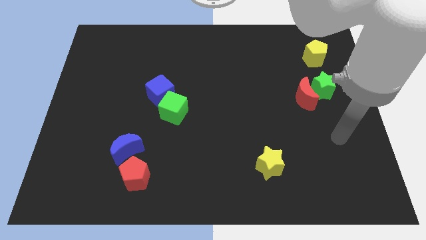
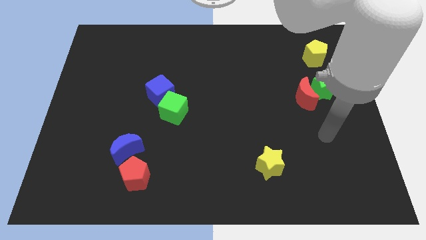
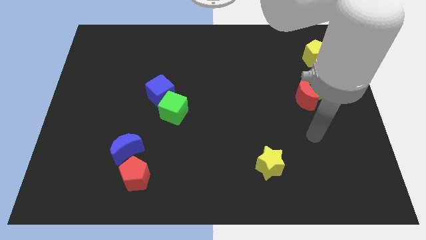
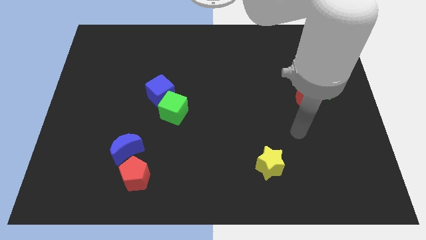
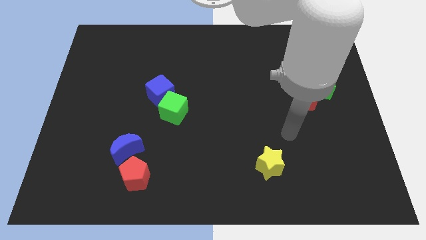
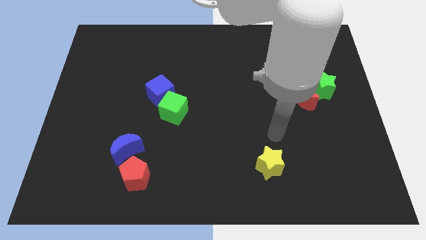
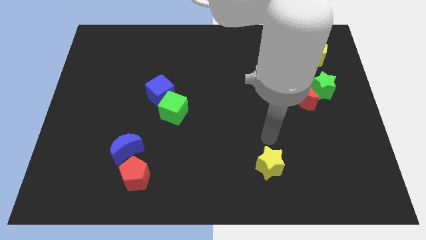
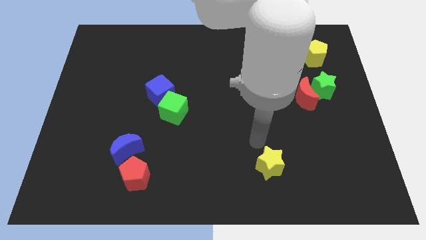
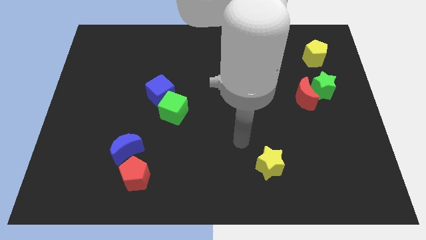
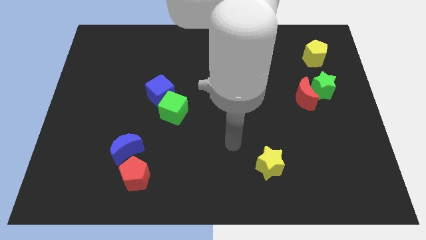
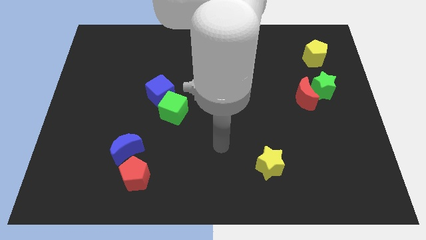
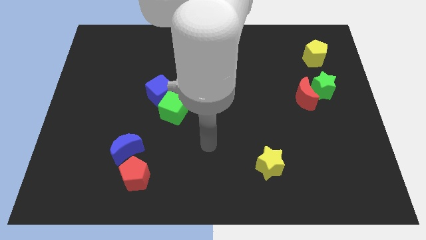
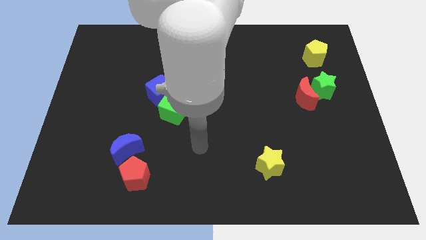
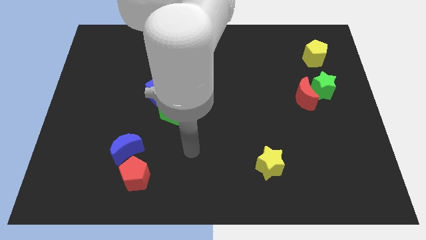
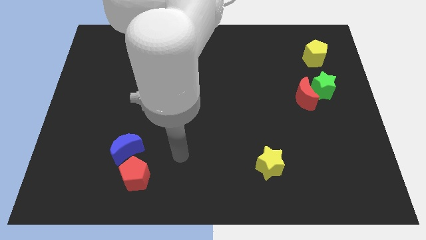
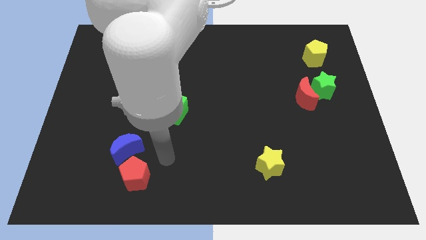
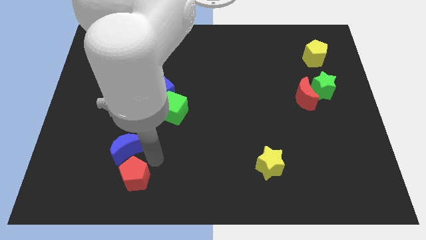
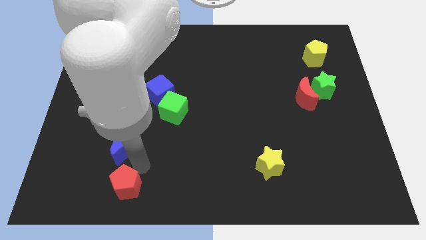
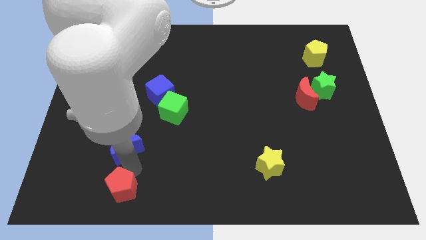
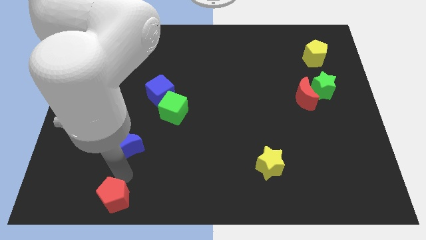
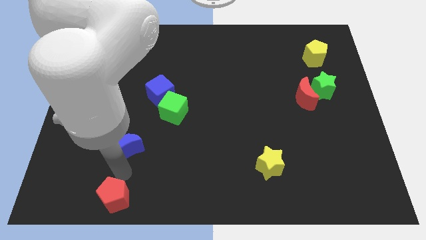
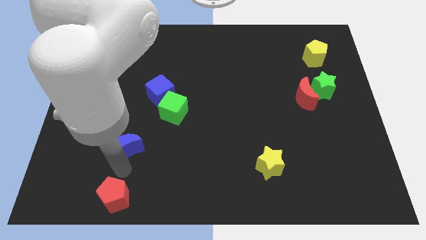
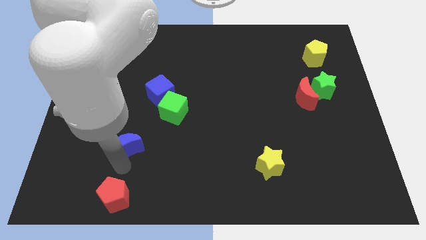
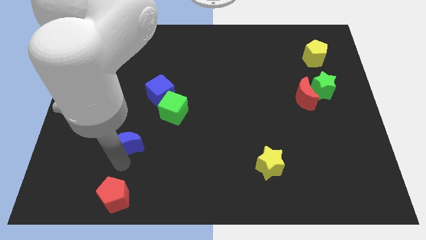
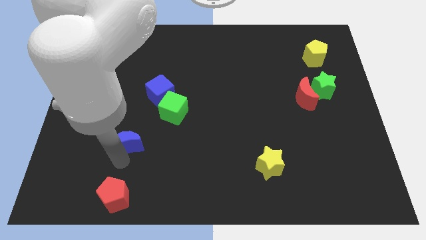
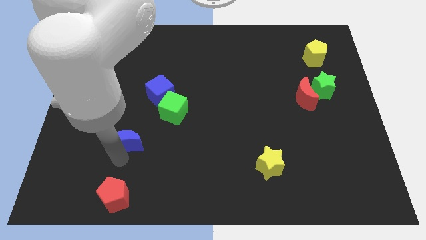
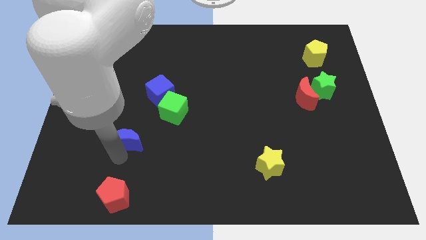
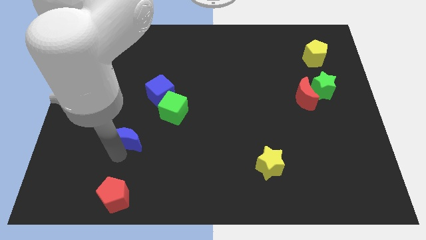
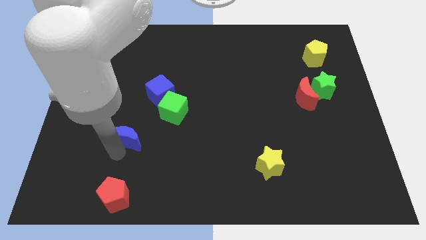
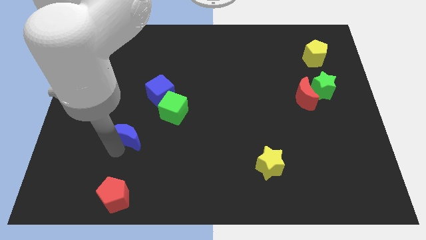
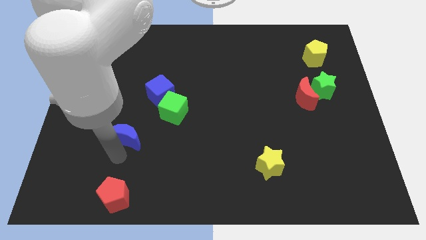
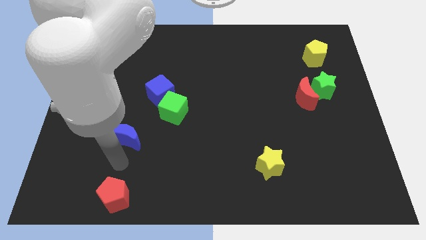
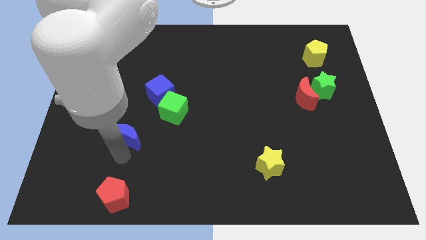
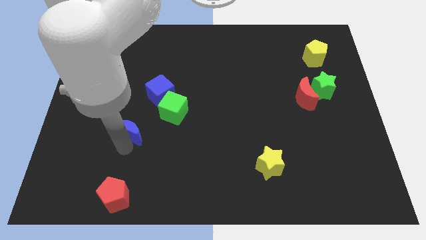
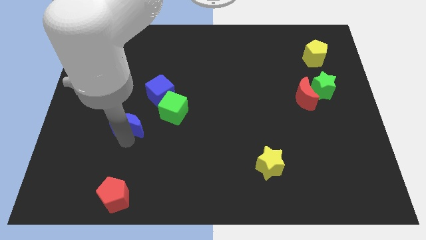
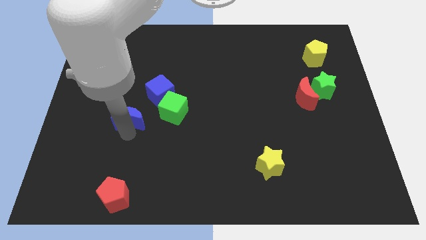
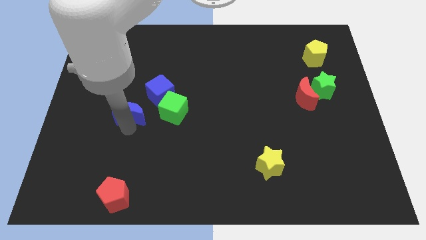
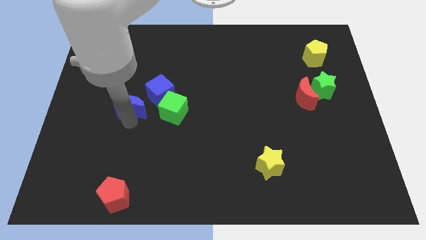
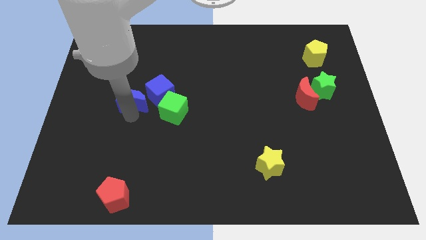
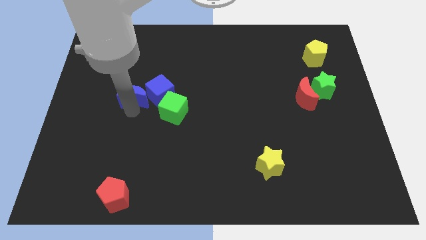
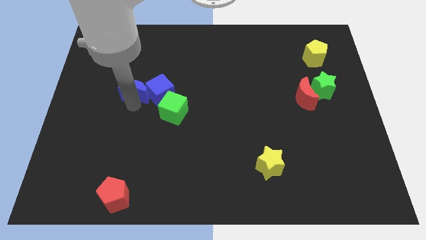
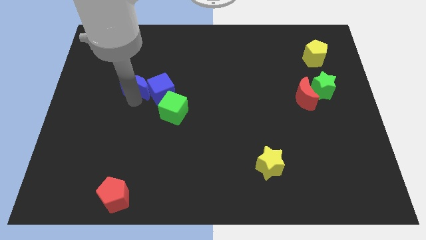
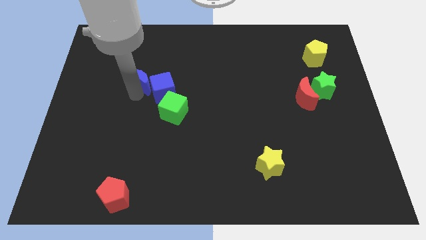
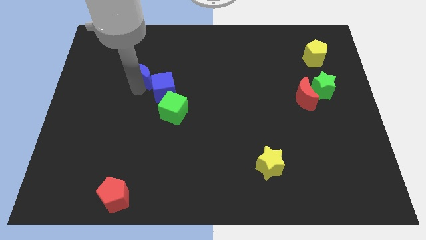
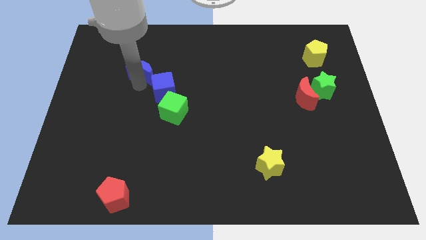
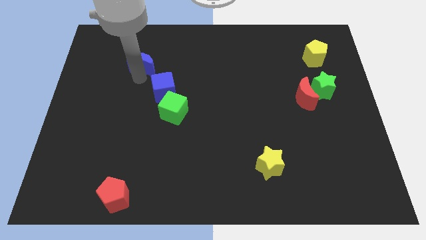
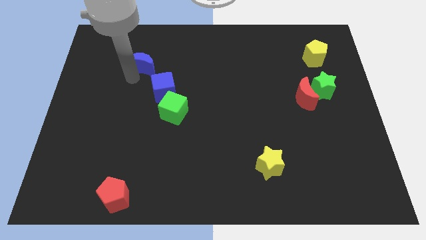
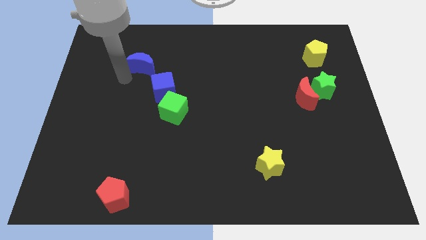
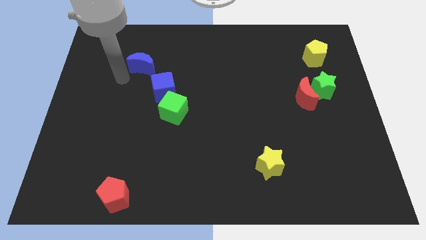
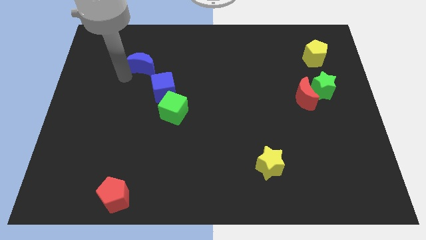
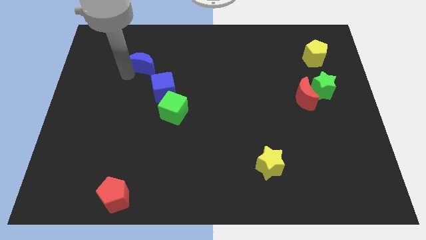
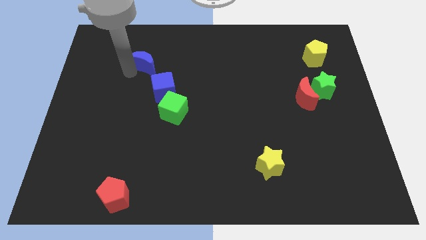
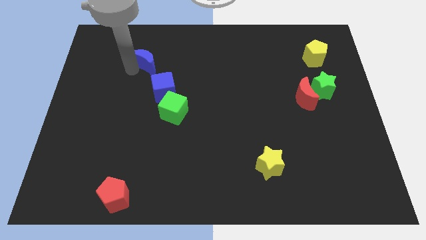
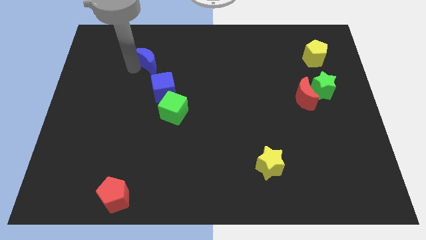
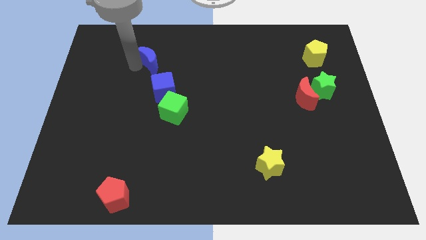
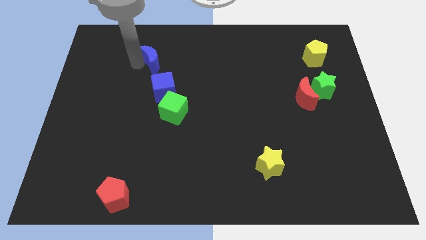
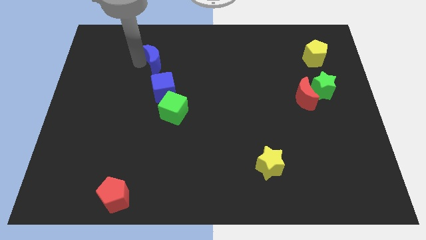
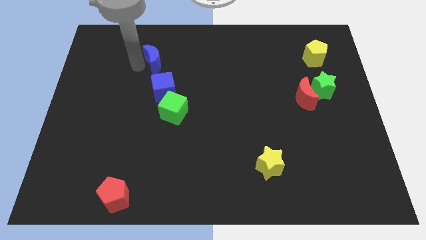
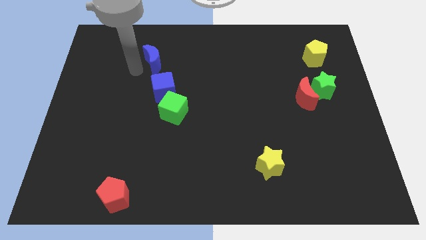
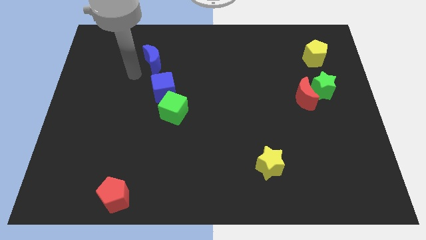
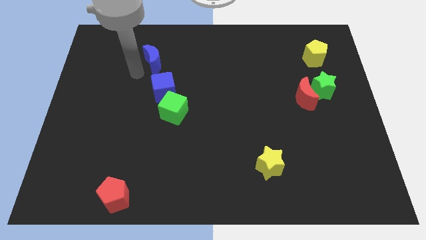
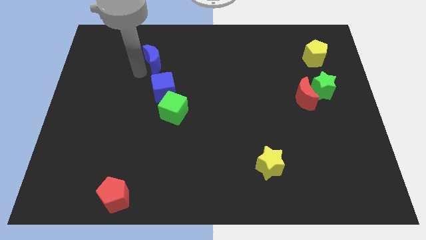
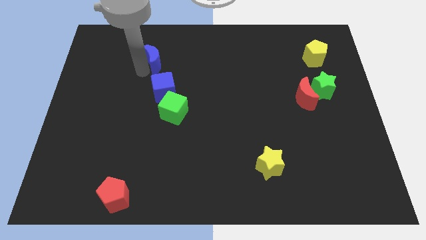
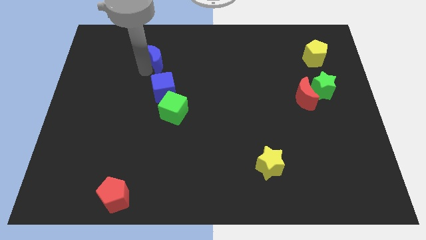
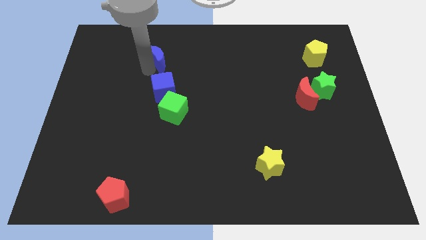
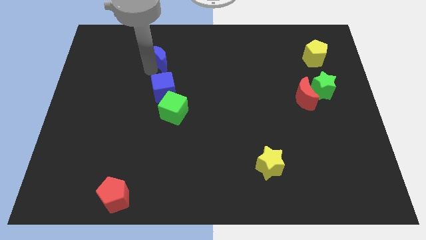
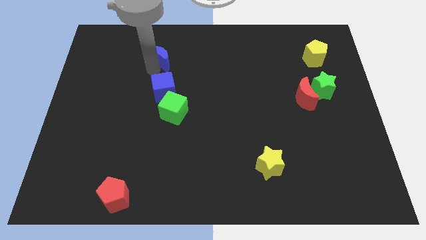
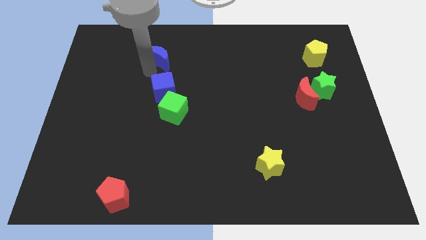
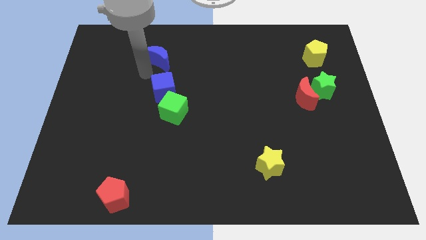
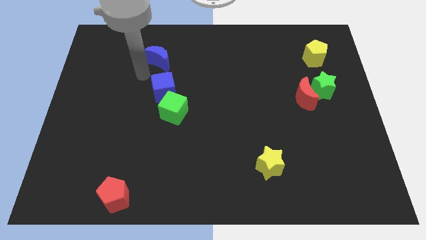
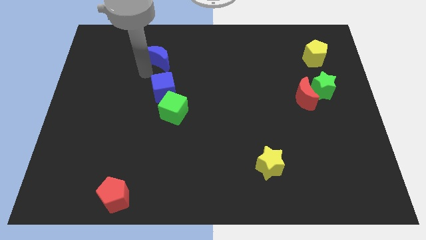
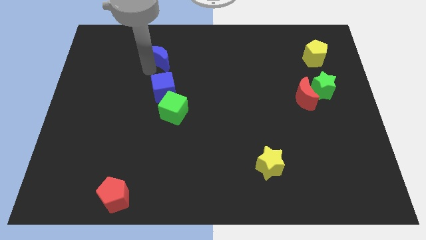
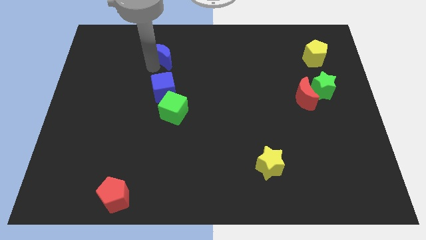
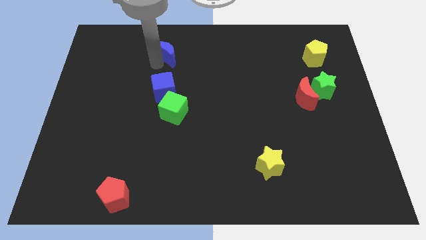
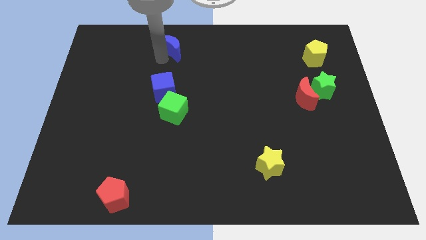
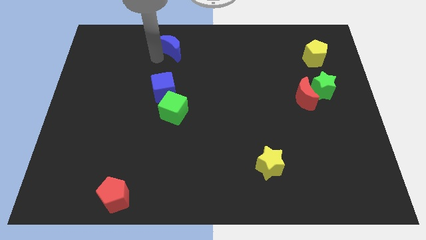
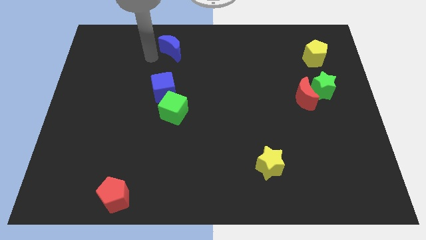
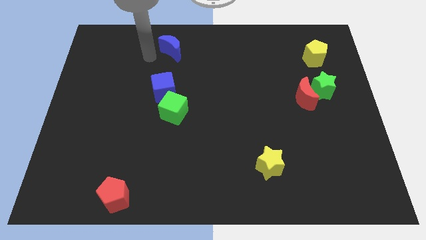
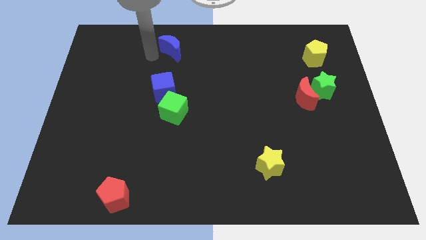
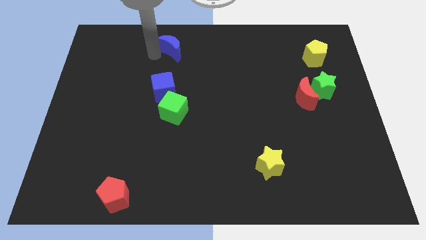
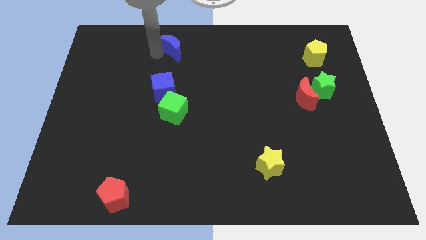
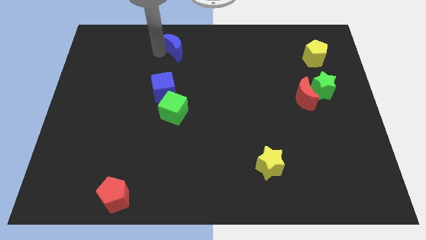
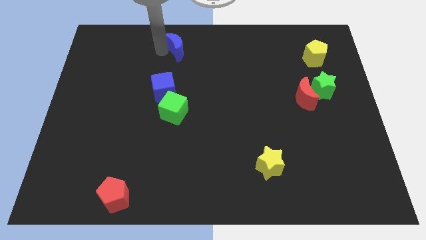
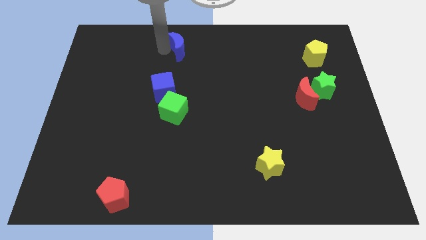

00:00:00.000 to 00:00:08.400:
put the blue moon to the towards your base
